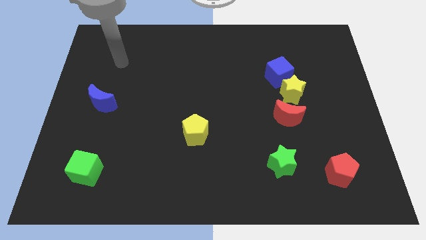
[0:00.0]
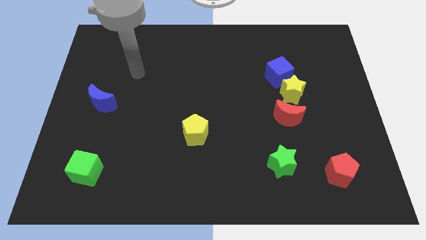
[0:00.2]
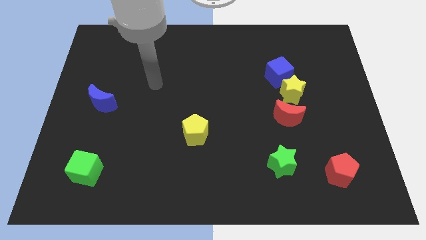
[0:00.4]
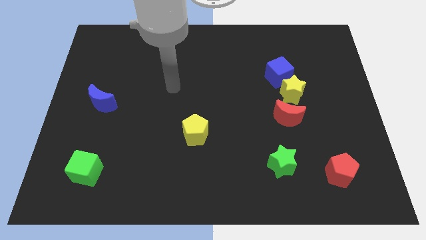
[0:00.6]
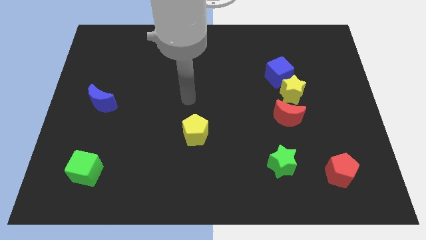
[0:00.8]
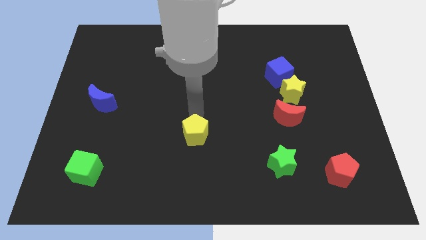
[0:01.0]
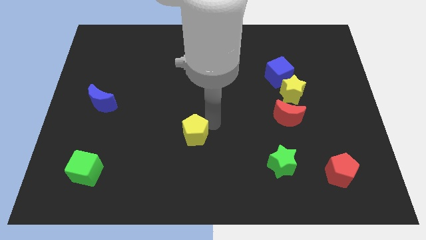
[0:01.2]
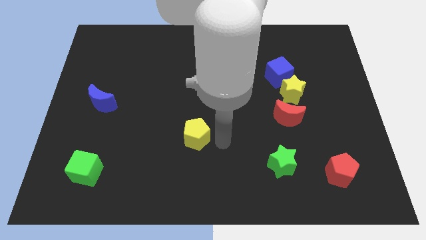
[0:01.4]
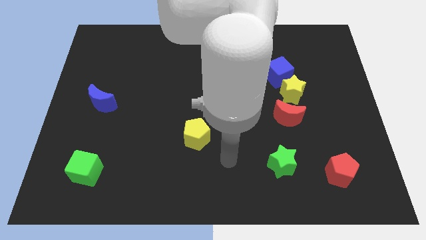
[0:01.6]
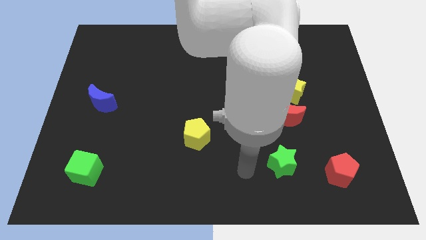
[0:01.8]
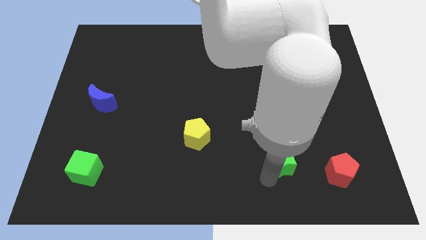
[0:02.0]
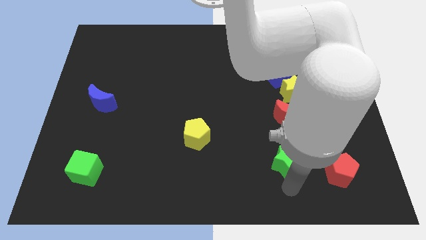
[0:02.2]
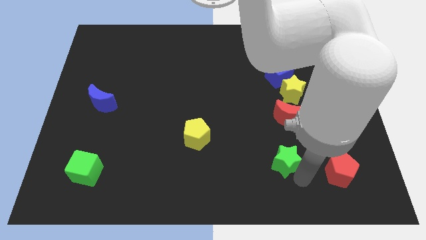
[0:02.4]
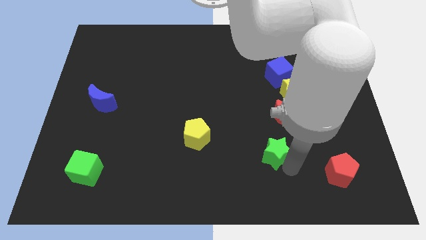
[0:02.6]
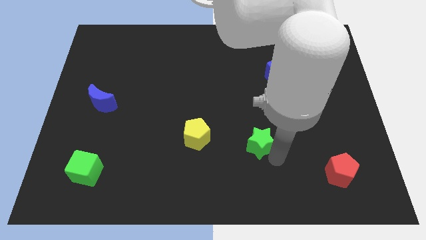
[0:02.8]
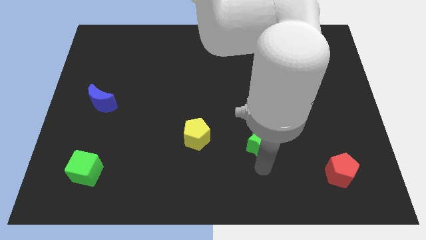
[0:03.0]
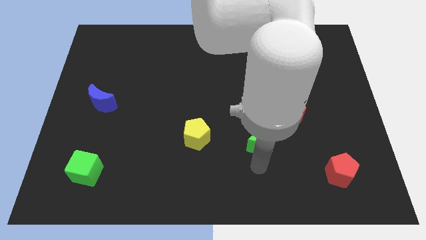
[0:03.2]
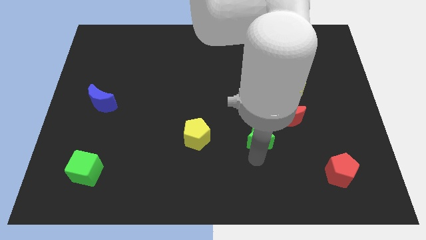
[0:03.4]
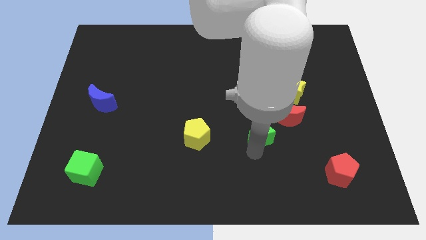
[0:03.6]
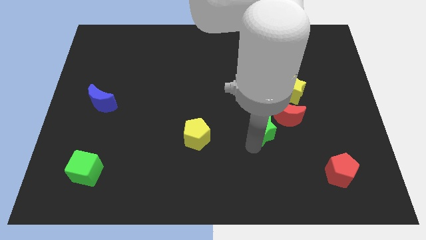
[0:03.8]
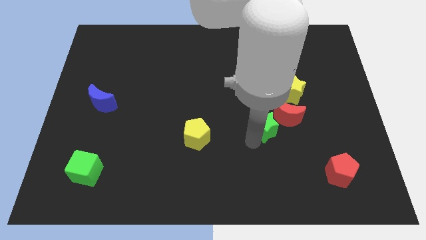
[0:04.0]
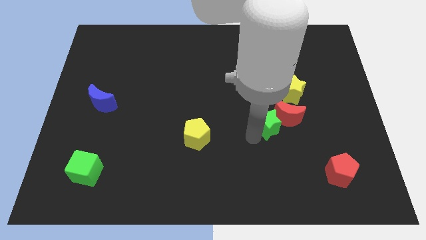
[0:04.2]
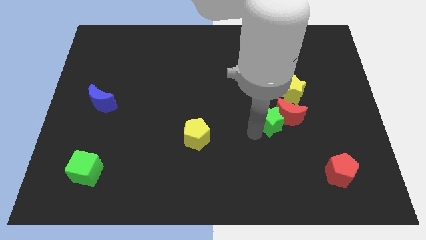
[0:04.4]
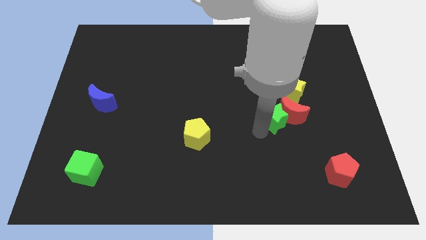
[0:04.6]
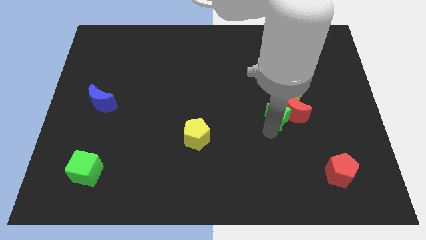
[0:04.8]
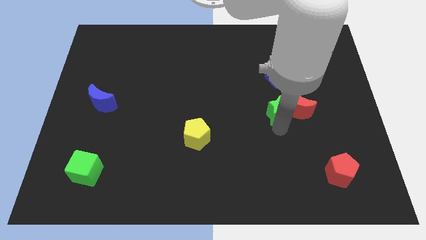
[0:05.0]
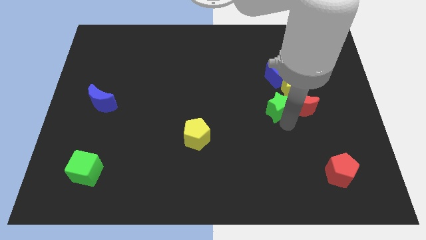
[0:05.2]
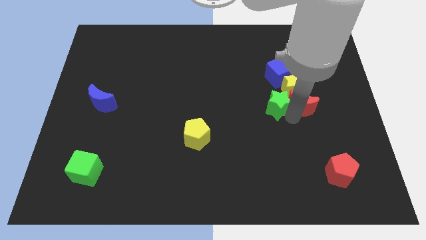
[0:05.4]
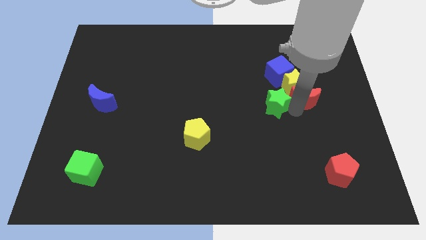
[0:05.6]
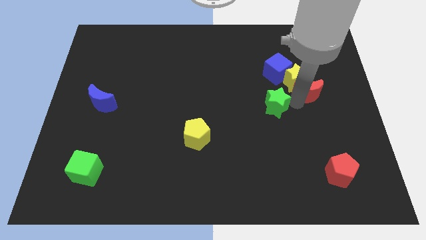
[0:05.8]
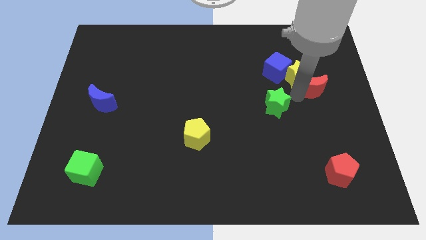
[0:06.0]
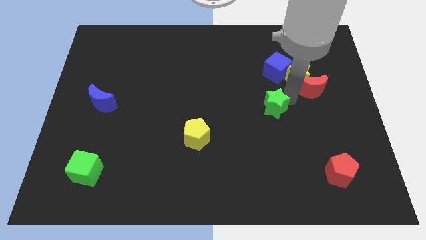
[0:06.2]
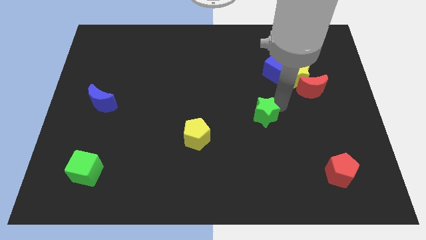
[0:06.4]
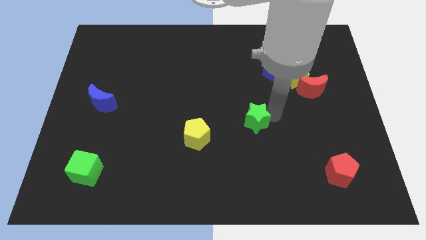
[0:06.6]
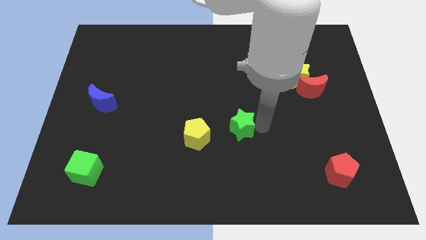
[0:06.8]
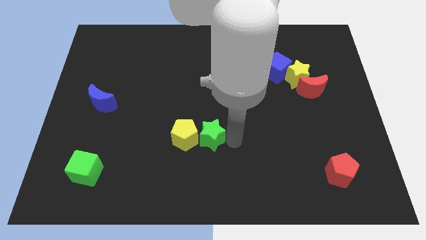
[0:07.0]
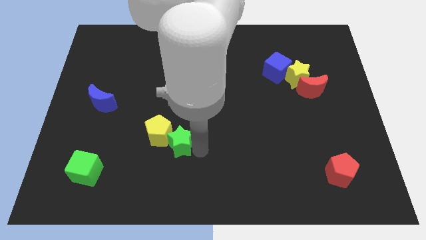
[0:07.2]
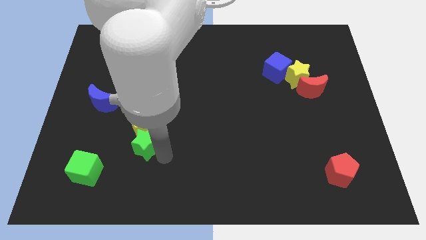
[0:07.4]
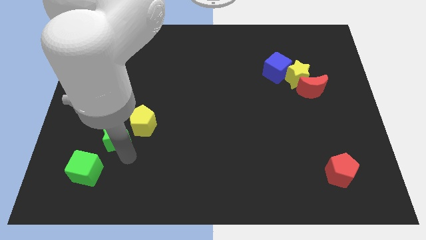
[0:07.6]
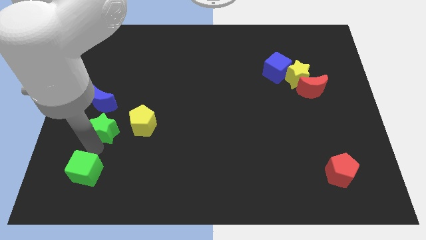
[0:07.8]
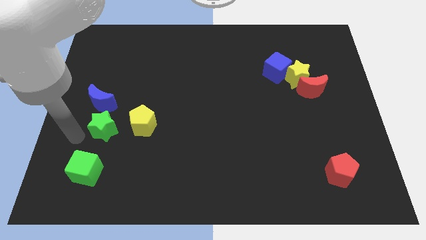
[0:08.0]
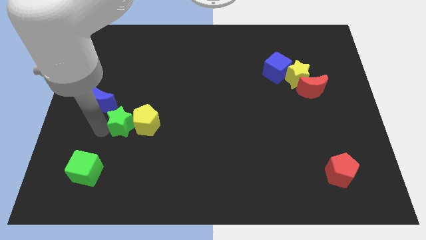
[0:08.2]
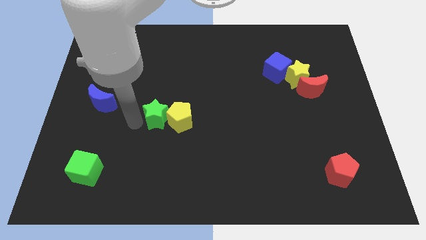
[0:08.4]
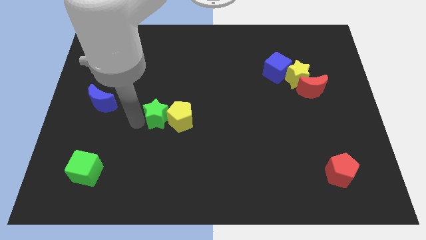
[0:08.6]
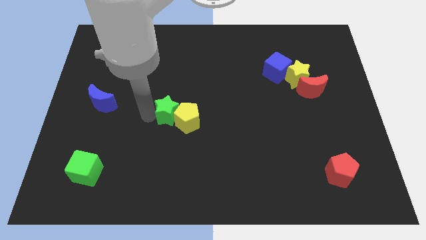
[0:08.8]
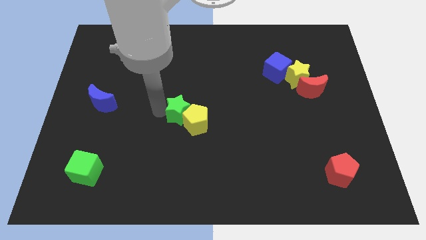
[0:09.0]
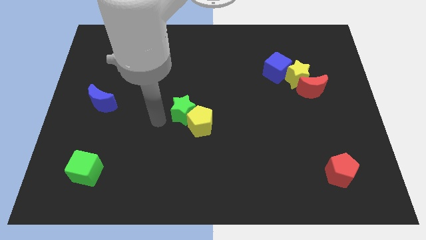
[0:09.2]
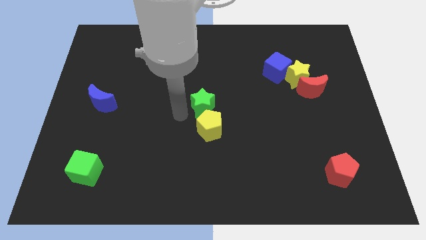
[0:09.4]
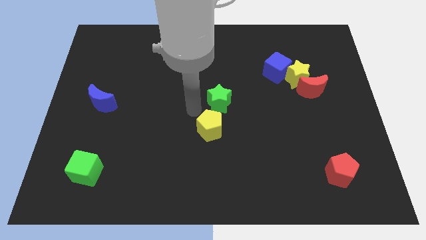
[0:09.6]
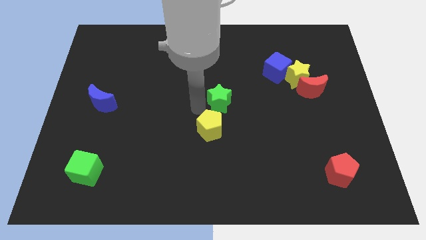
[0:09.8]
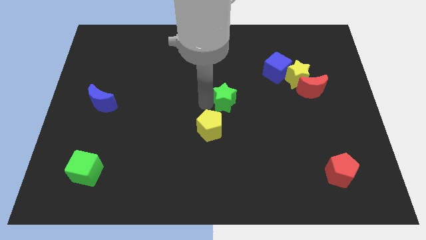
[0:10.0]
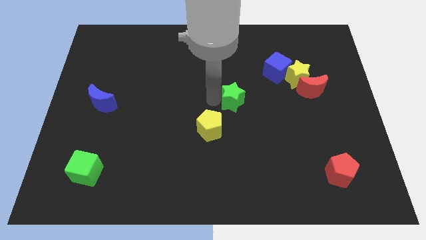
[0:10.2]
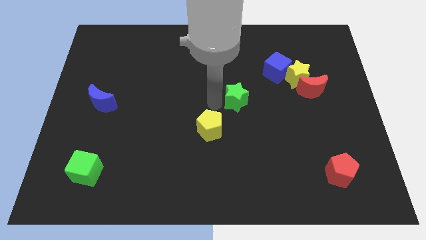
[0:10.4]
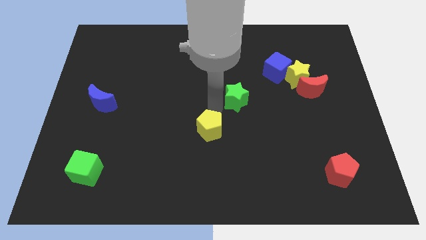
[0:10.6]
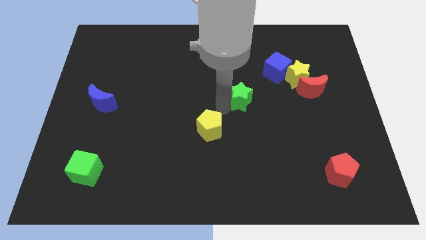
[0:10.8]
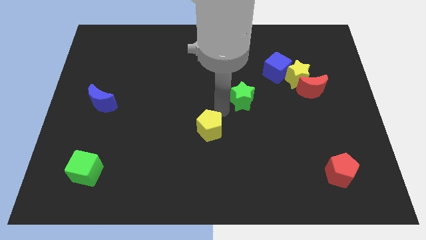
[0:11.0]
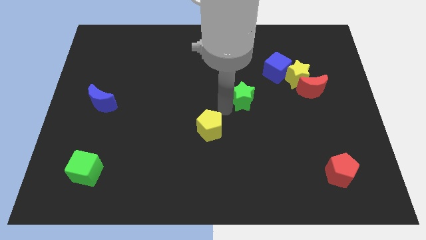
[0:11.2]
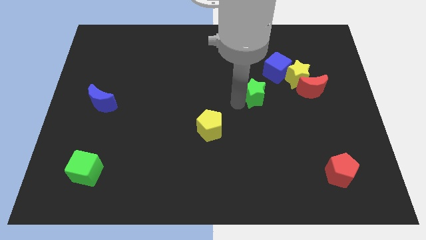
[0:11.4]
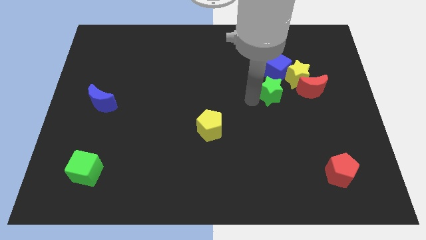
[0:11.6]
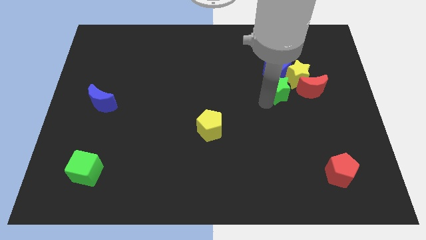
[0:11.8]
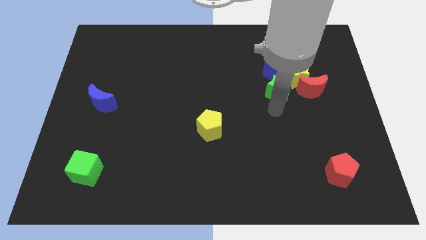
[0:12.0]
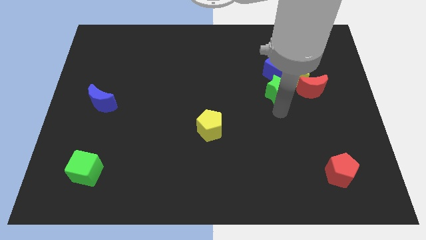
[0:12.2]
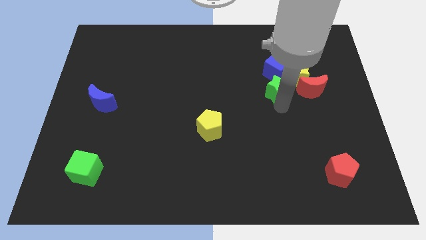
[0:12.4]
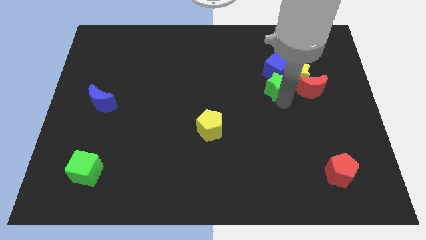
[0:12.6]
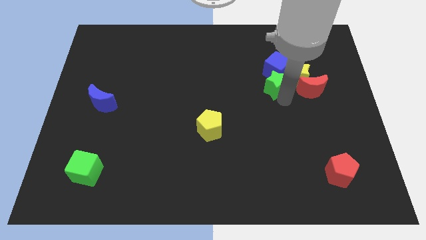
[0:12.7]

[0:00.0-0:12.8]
put the green star next to the blue cube
